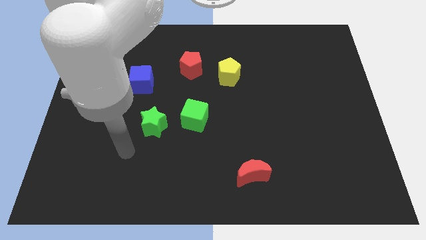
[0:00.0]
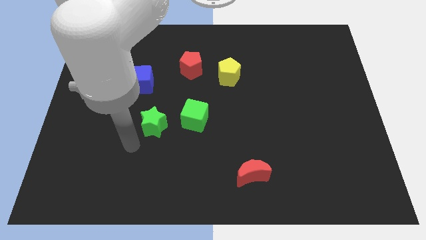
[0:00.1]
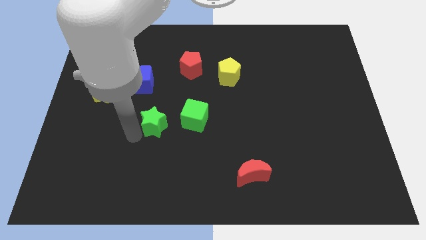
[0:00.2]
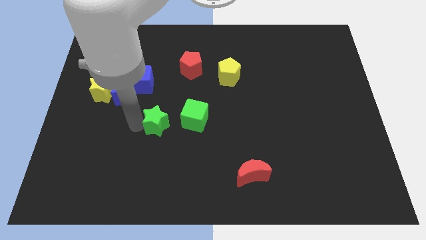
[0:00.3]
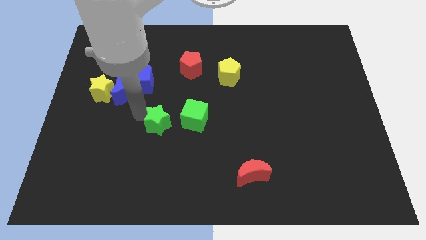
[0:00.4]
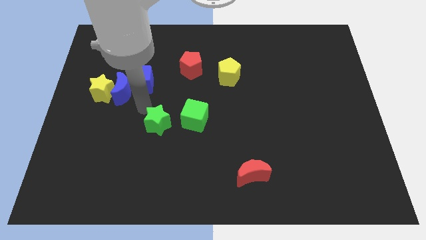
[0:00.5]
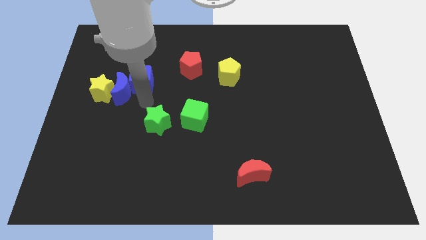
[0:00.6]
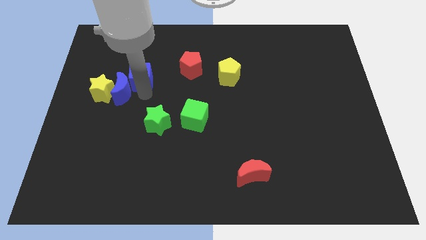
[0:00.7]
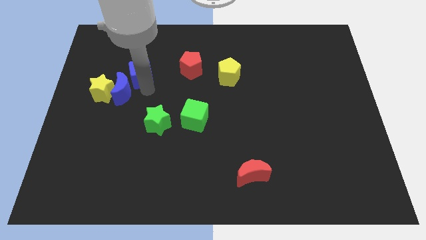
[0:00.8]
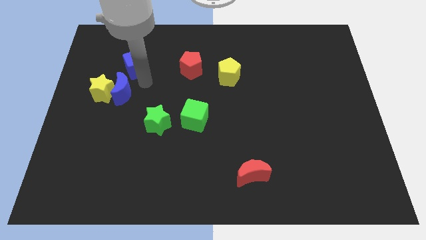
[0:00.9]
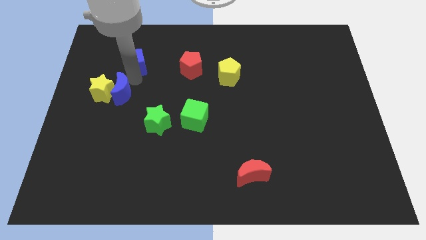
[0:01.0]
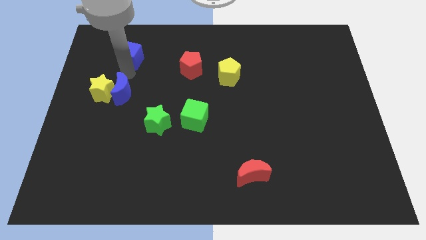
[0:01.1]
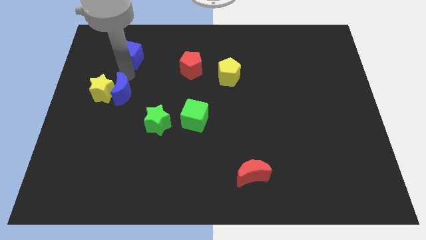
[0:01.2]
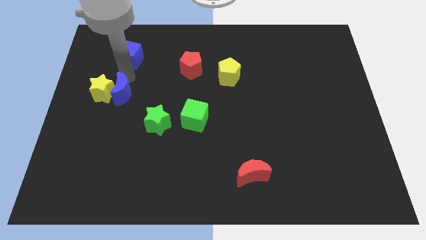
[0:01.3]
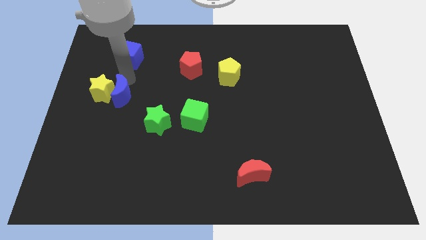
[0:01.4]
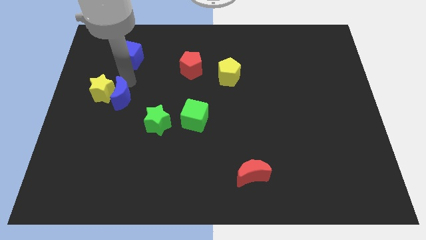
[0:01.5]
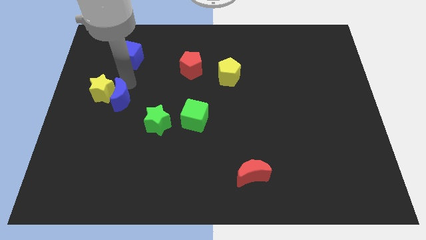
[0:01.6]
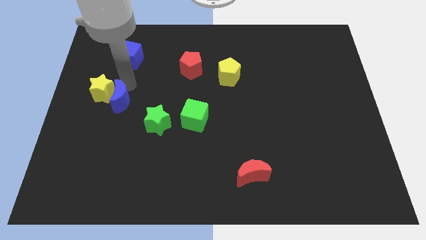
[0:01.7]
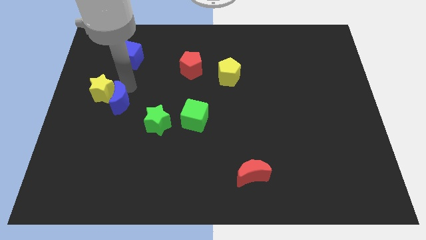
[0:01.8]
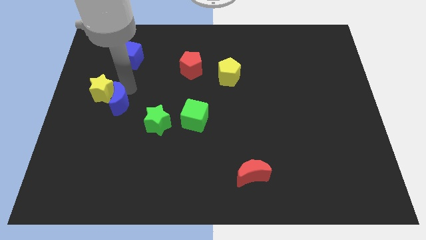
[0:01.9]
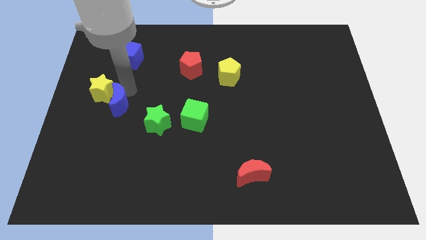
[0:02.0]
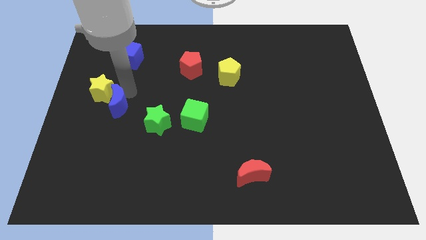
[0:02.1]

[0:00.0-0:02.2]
separate the blue moon from the yellow star and blue cube

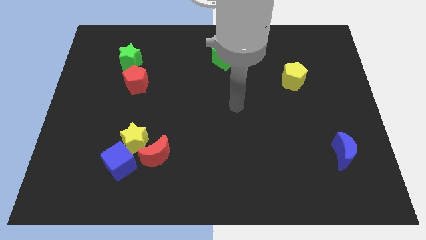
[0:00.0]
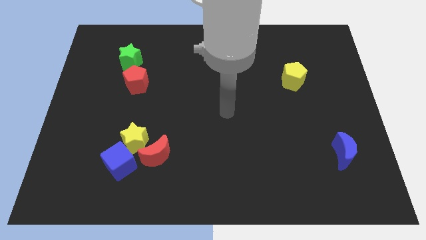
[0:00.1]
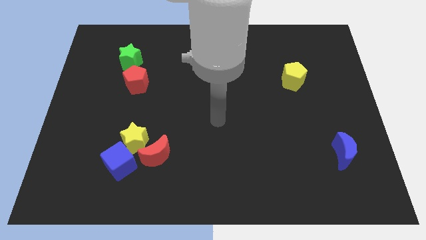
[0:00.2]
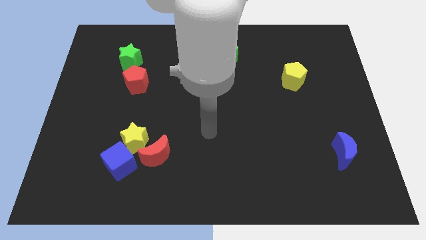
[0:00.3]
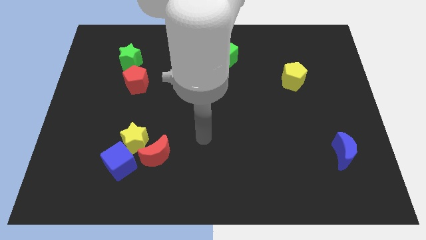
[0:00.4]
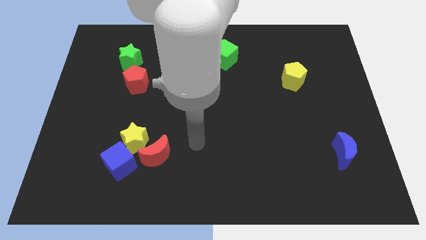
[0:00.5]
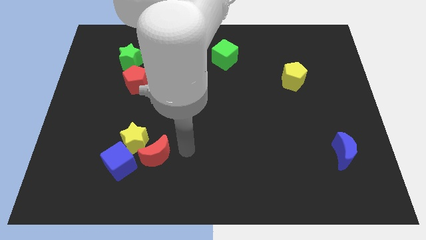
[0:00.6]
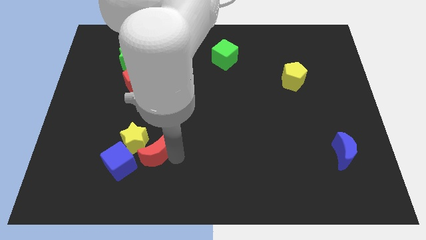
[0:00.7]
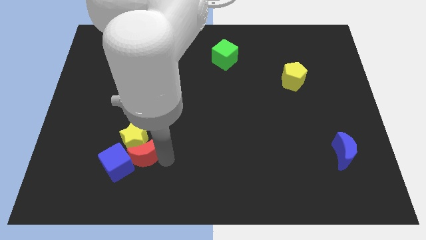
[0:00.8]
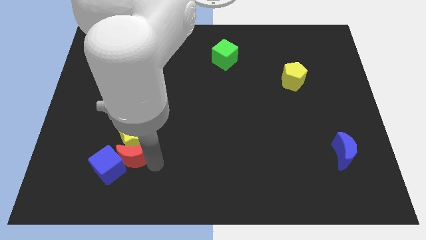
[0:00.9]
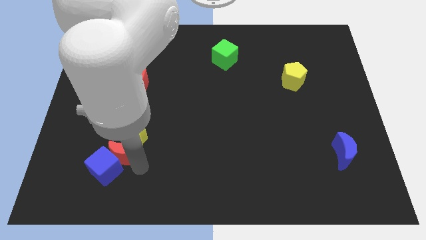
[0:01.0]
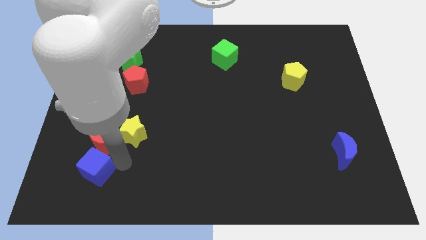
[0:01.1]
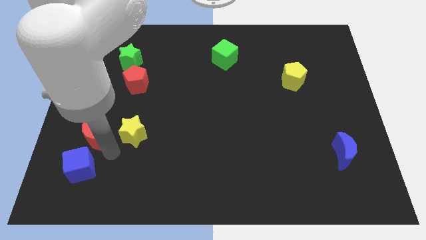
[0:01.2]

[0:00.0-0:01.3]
pull the yellow star apart from the red moon and blue cube

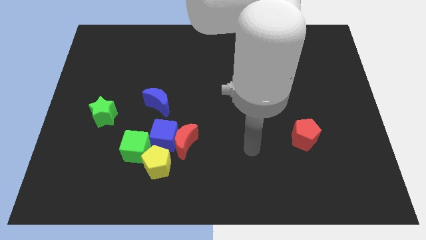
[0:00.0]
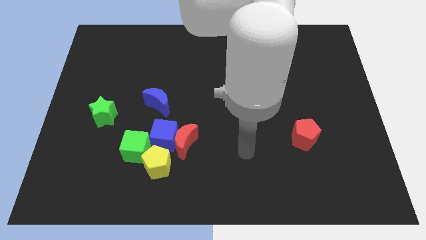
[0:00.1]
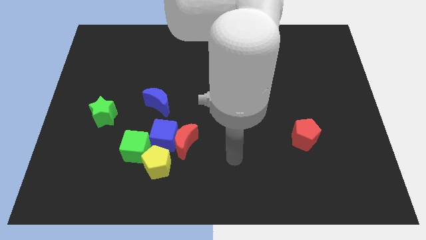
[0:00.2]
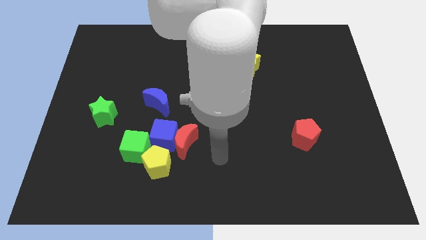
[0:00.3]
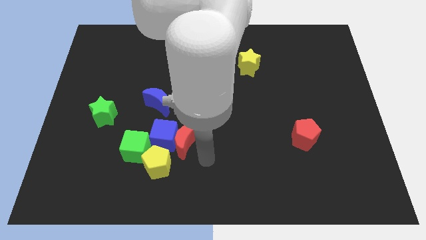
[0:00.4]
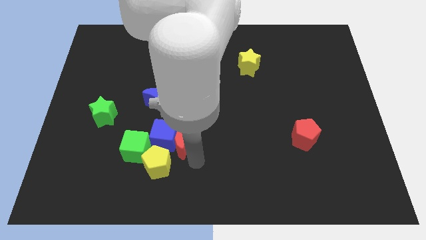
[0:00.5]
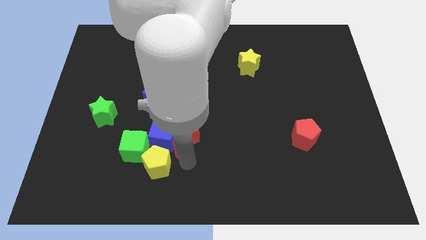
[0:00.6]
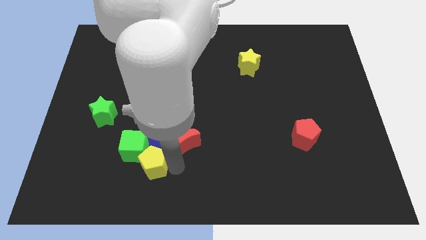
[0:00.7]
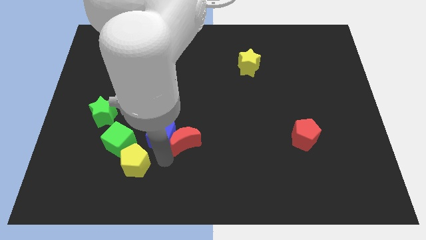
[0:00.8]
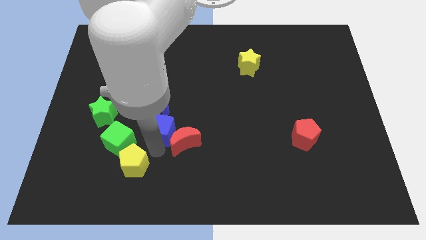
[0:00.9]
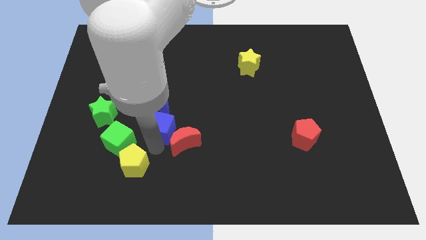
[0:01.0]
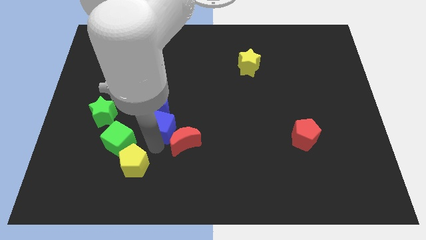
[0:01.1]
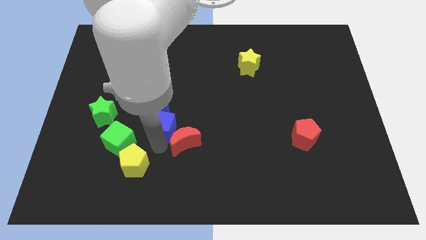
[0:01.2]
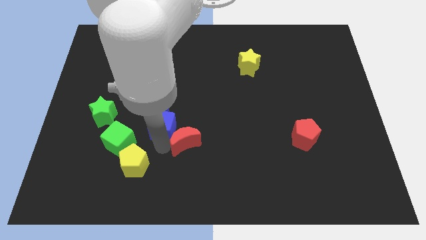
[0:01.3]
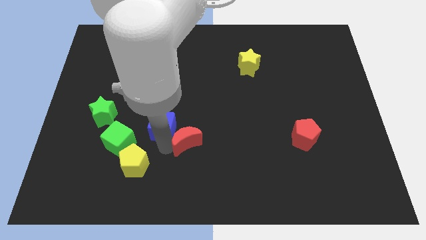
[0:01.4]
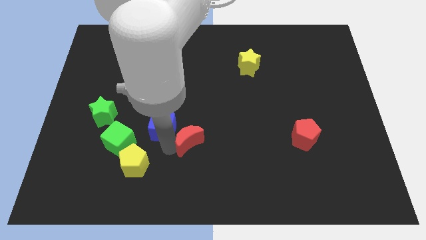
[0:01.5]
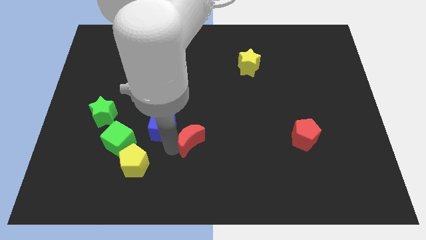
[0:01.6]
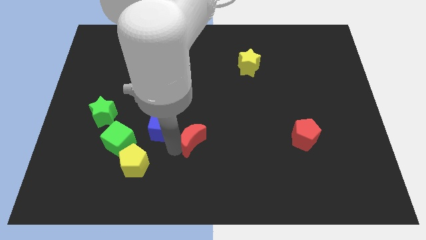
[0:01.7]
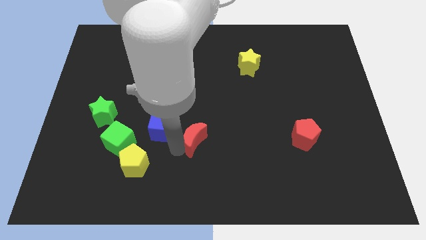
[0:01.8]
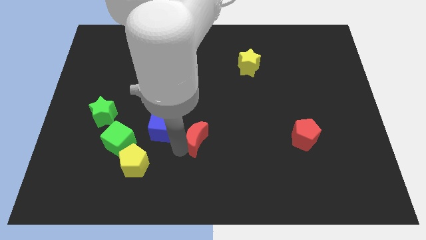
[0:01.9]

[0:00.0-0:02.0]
separate the red moon from the blue cube and yellow pentagon

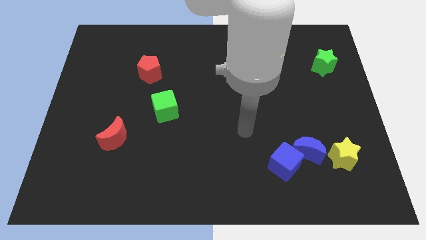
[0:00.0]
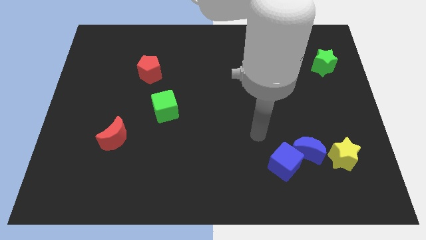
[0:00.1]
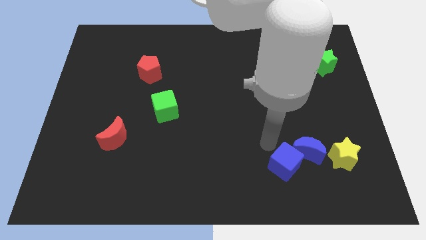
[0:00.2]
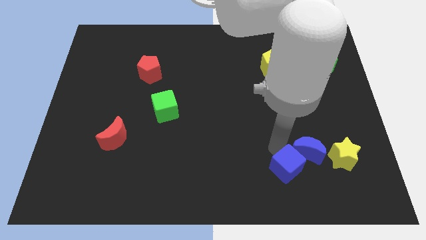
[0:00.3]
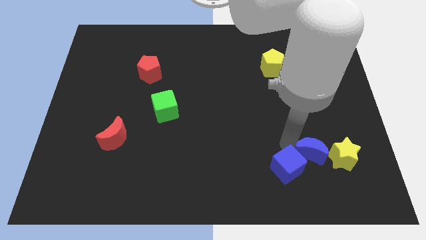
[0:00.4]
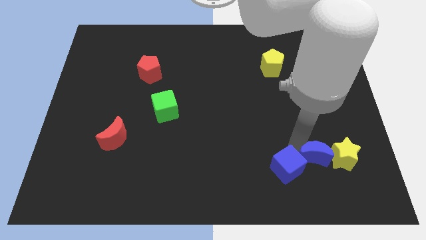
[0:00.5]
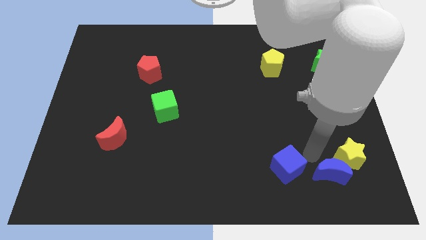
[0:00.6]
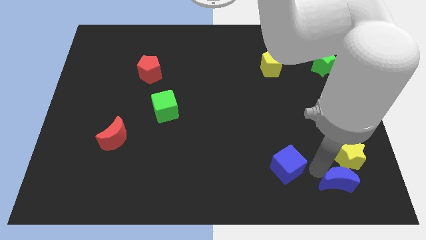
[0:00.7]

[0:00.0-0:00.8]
move the blue cube away from the blue moon

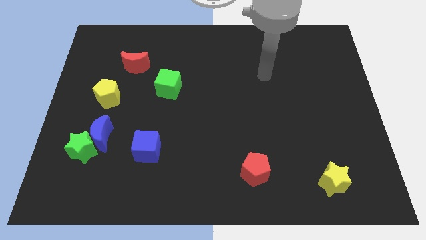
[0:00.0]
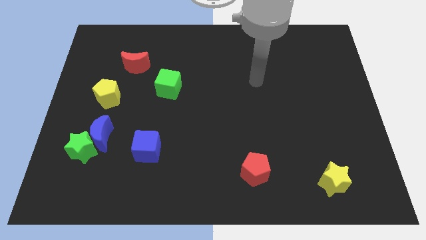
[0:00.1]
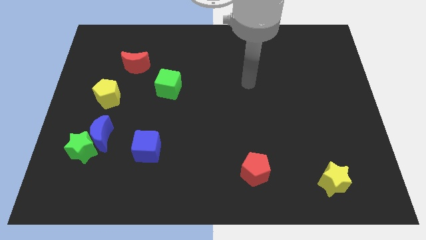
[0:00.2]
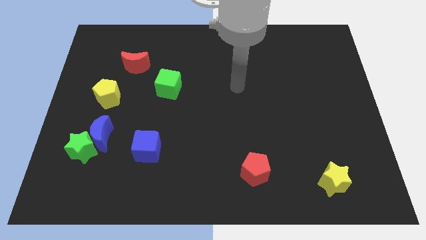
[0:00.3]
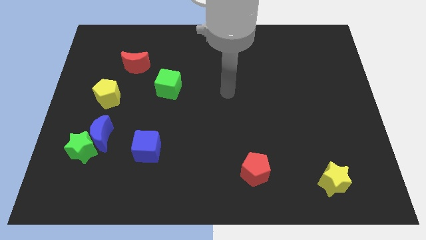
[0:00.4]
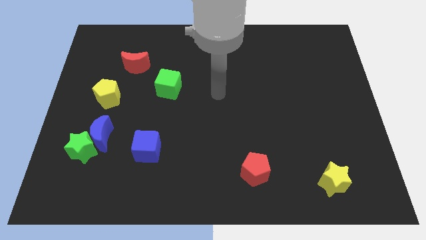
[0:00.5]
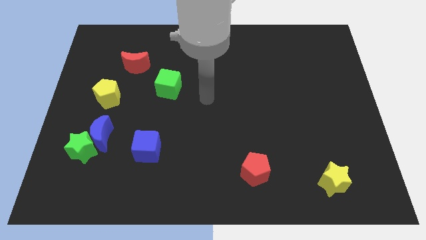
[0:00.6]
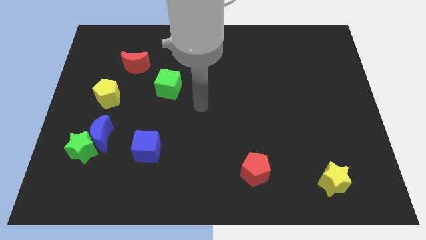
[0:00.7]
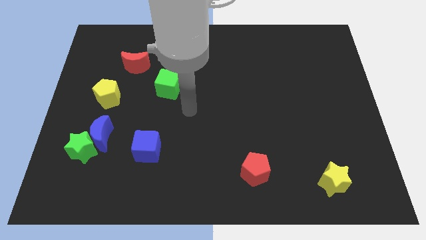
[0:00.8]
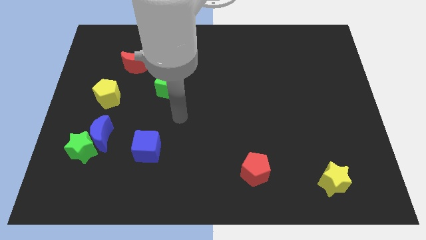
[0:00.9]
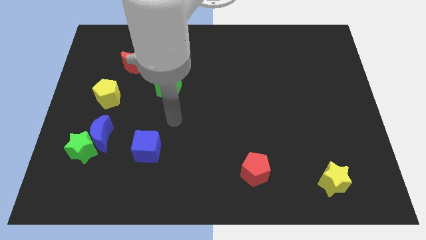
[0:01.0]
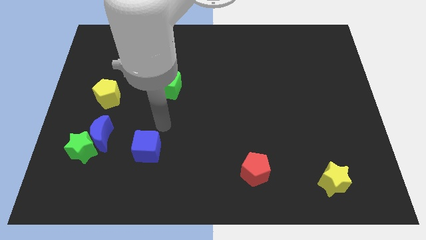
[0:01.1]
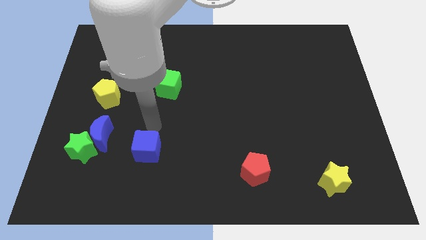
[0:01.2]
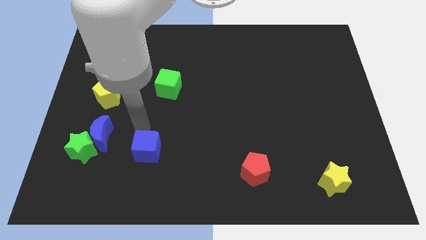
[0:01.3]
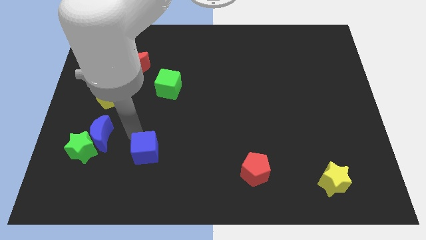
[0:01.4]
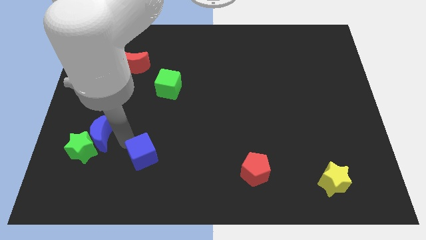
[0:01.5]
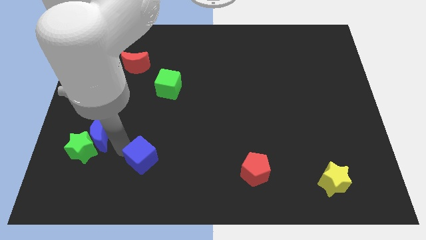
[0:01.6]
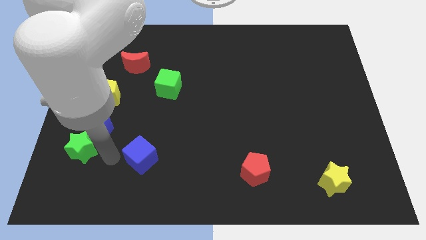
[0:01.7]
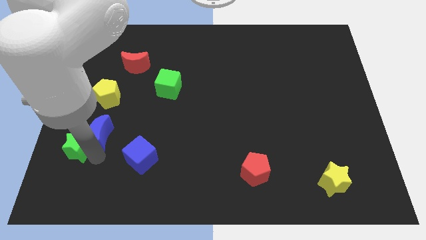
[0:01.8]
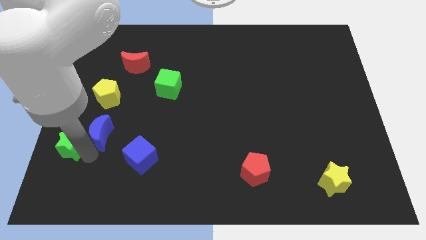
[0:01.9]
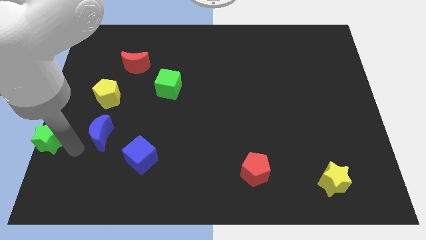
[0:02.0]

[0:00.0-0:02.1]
move the blue moon away from the green star

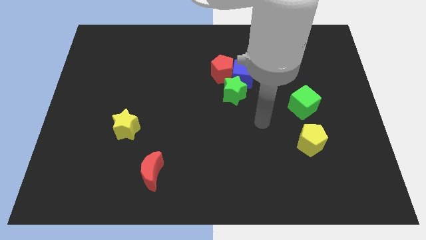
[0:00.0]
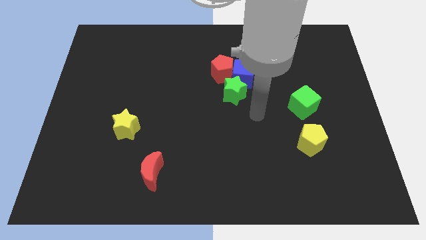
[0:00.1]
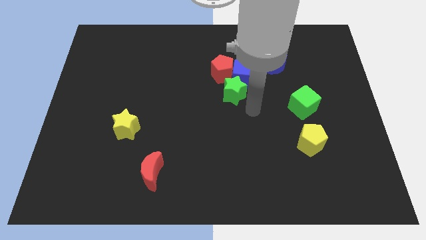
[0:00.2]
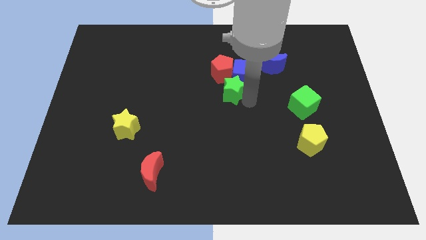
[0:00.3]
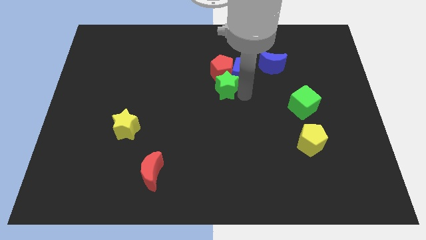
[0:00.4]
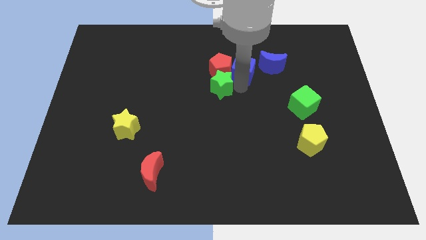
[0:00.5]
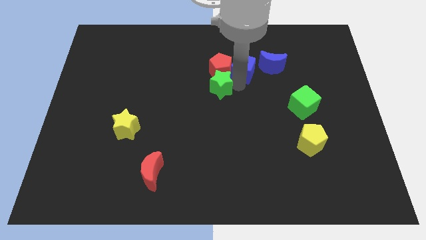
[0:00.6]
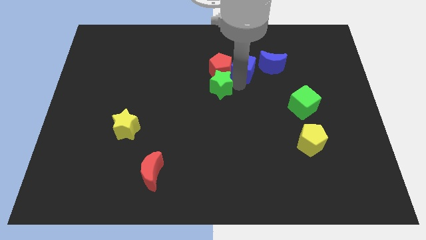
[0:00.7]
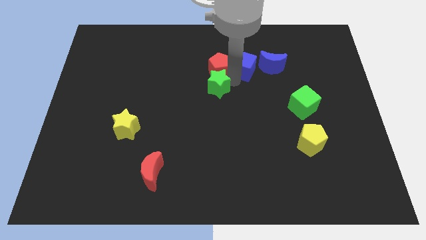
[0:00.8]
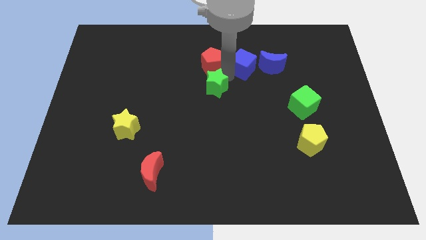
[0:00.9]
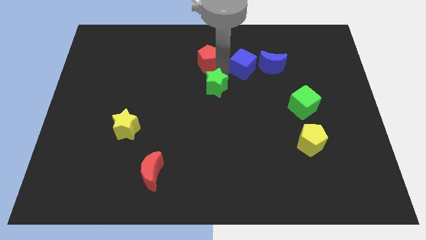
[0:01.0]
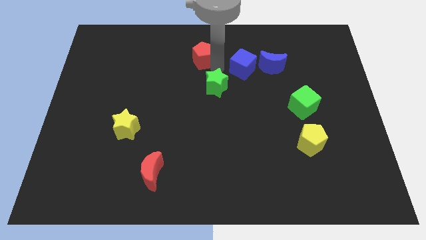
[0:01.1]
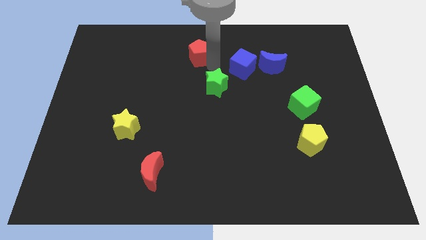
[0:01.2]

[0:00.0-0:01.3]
pull the red pentagon apart from the blue cube and green star
